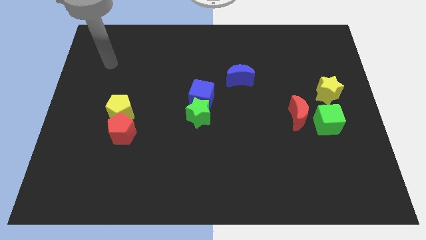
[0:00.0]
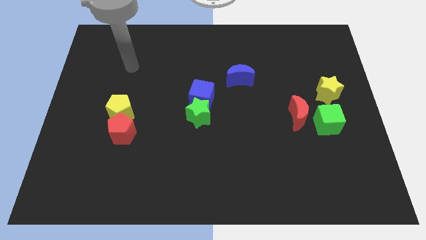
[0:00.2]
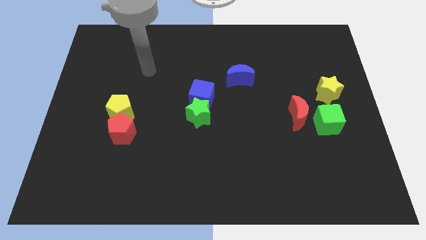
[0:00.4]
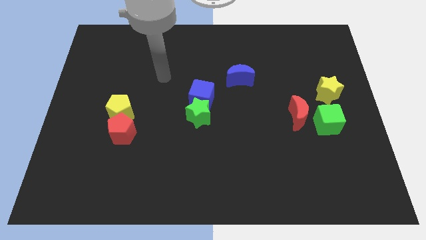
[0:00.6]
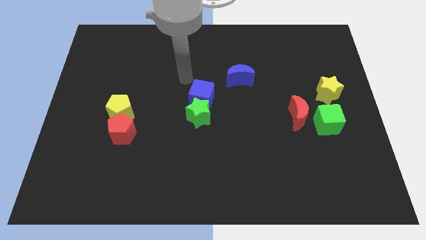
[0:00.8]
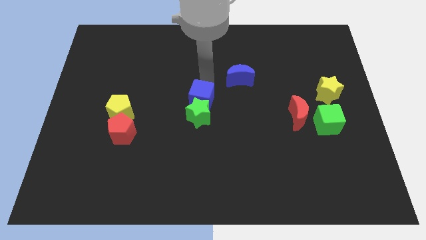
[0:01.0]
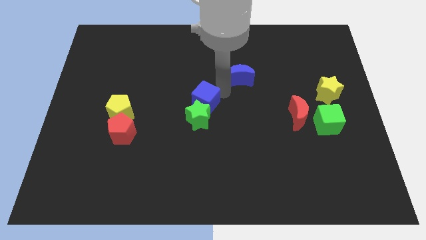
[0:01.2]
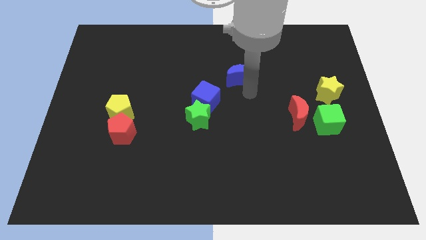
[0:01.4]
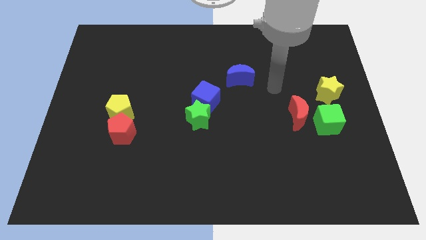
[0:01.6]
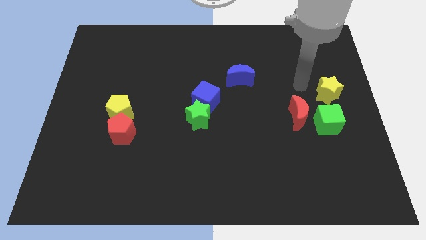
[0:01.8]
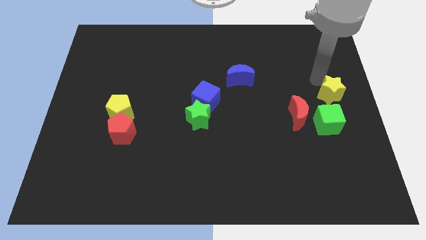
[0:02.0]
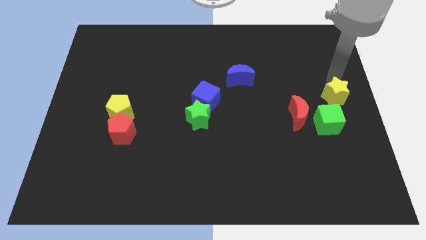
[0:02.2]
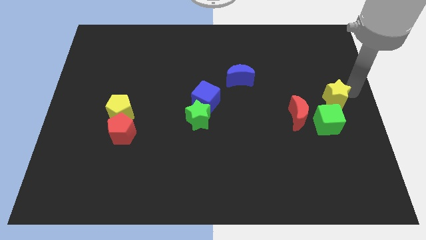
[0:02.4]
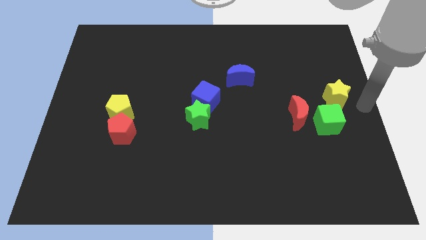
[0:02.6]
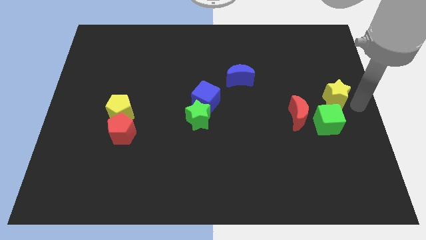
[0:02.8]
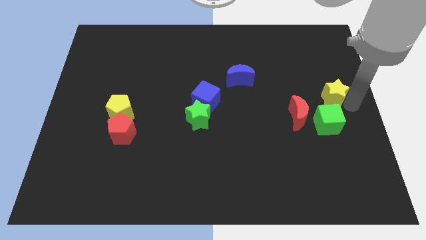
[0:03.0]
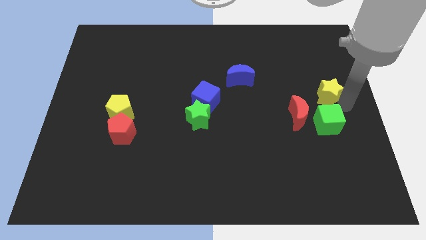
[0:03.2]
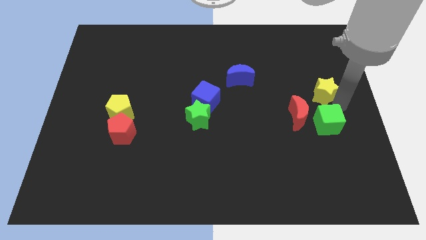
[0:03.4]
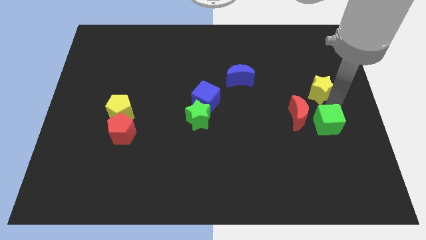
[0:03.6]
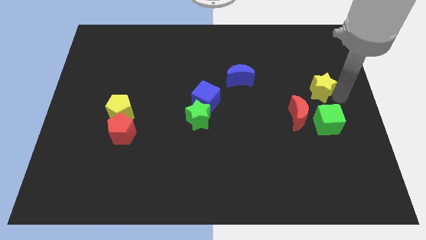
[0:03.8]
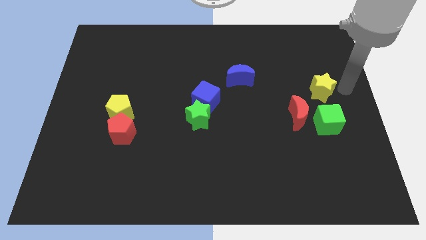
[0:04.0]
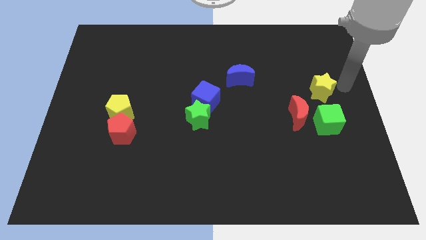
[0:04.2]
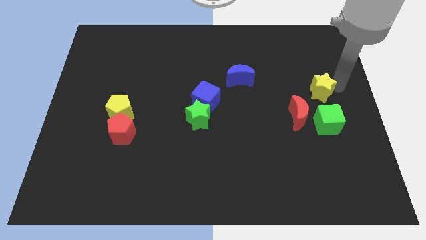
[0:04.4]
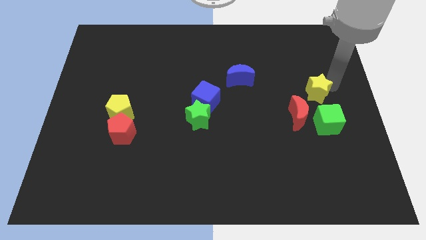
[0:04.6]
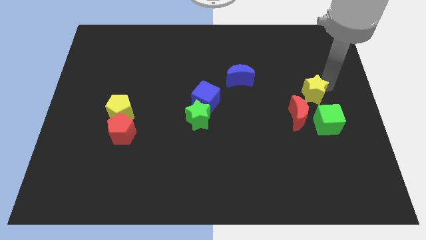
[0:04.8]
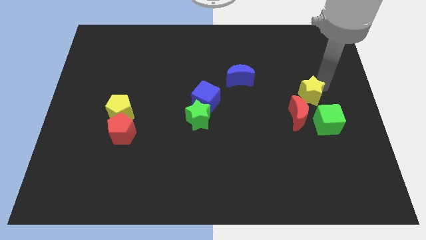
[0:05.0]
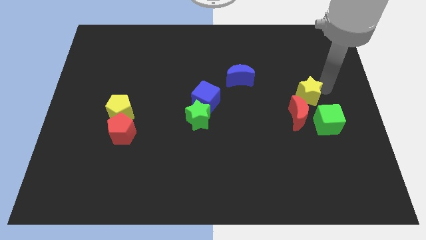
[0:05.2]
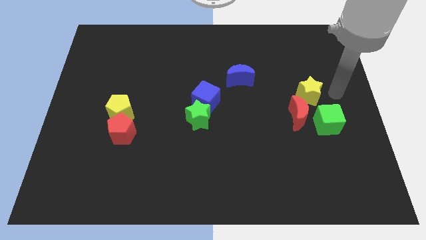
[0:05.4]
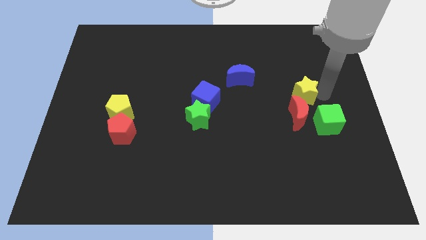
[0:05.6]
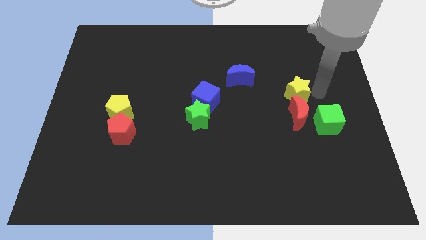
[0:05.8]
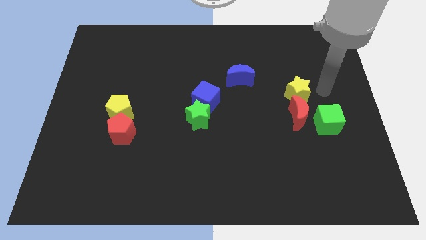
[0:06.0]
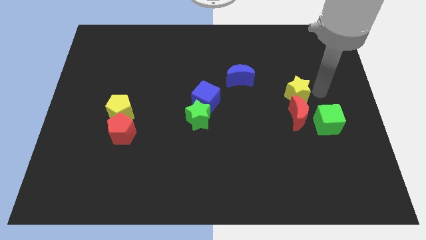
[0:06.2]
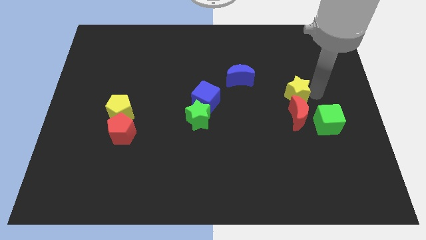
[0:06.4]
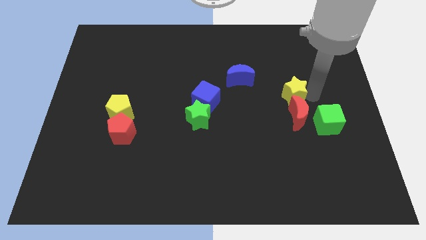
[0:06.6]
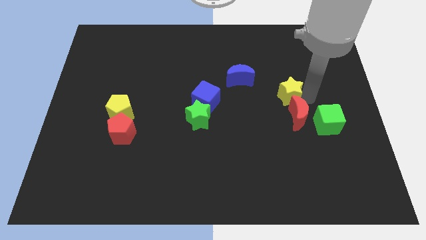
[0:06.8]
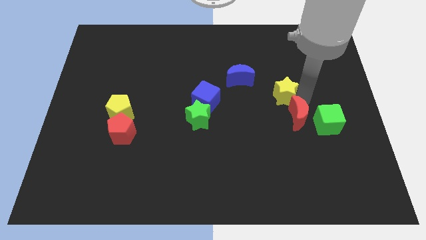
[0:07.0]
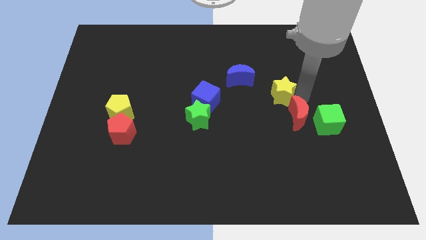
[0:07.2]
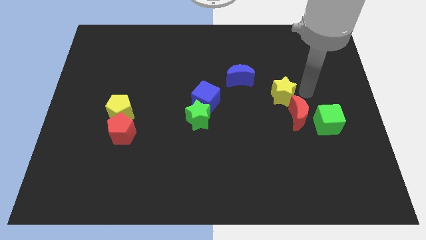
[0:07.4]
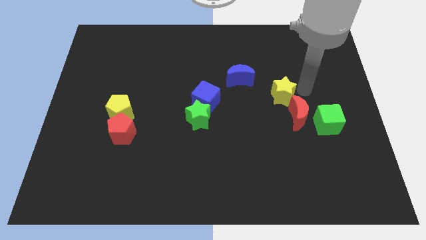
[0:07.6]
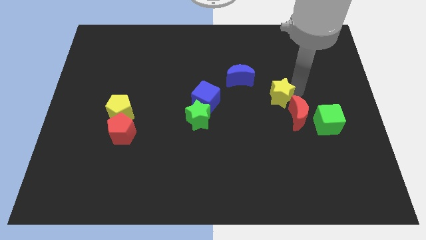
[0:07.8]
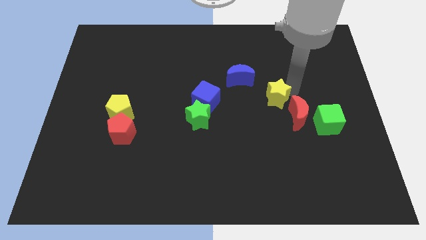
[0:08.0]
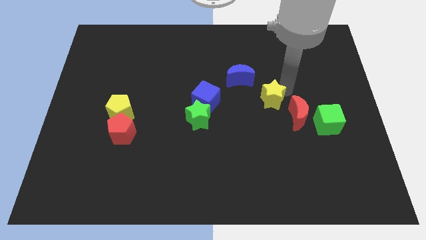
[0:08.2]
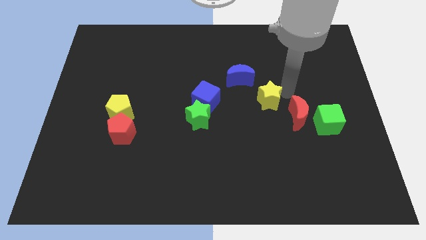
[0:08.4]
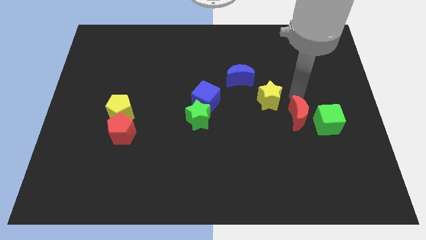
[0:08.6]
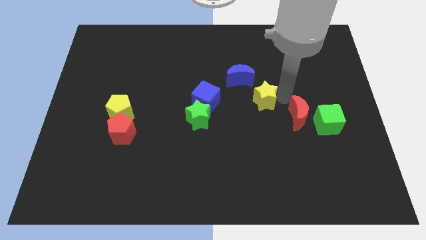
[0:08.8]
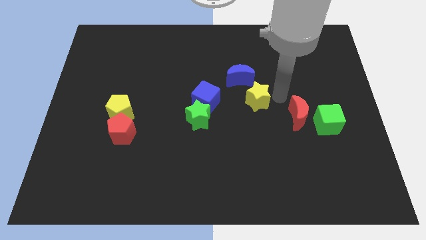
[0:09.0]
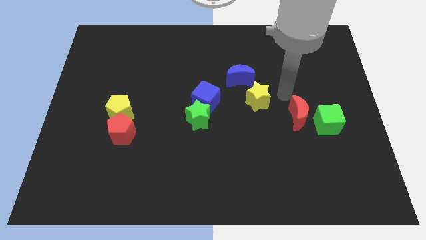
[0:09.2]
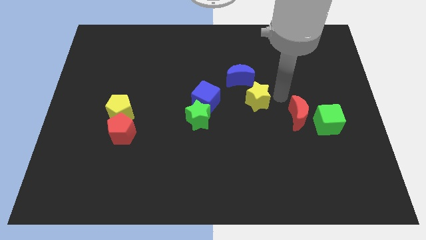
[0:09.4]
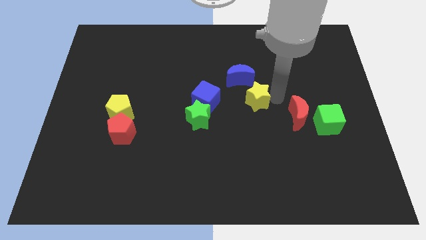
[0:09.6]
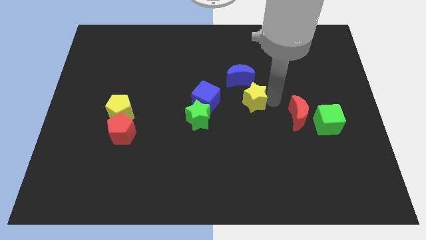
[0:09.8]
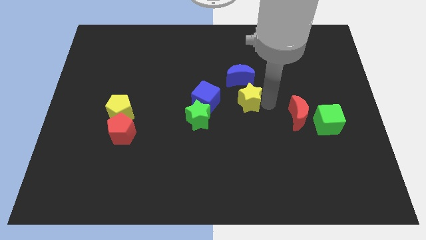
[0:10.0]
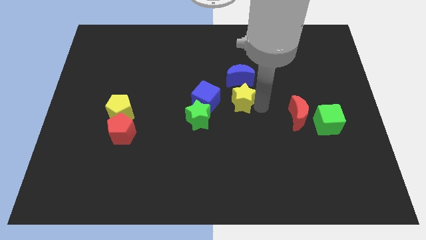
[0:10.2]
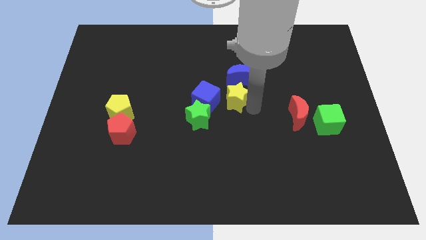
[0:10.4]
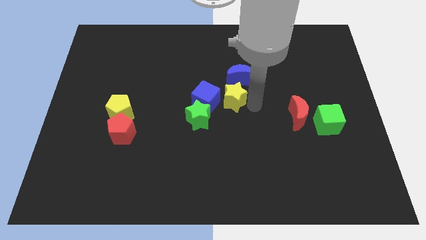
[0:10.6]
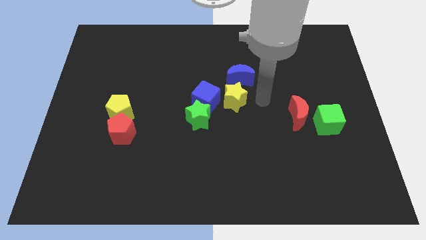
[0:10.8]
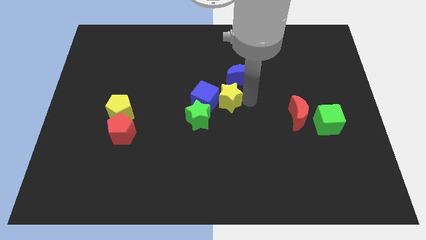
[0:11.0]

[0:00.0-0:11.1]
slide the yellow star to the blue cube

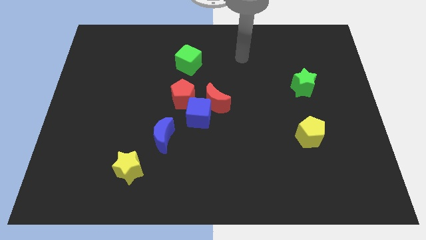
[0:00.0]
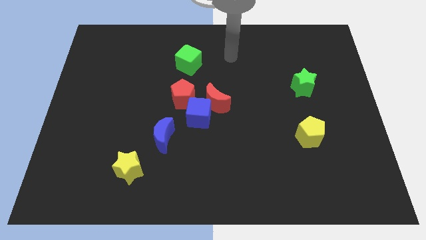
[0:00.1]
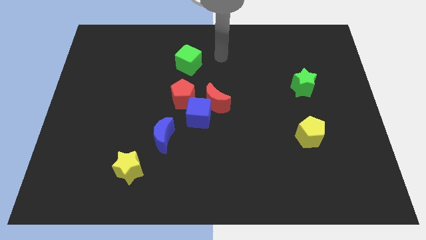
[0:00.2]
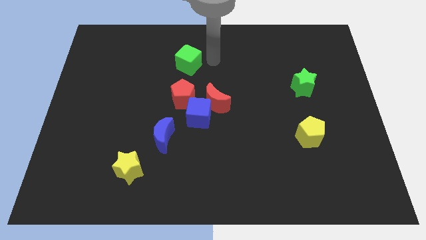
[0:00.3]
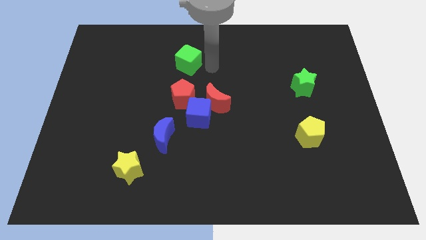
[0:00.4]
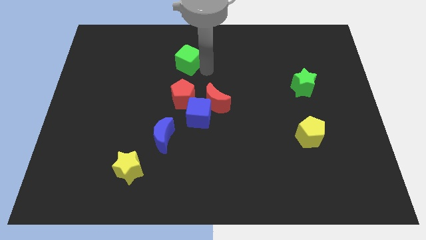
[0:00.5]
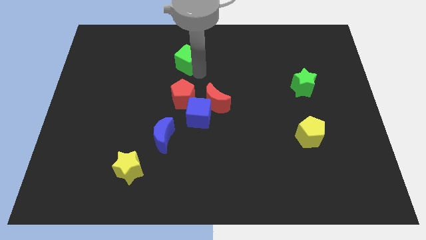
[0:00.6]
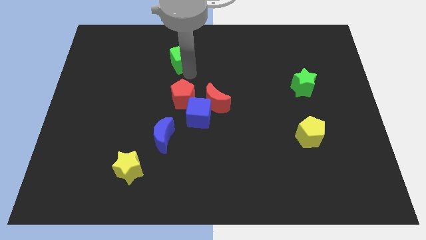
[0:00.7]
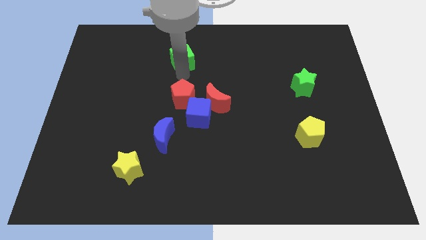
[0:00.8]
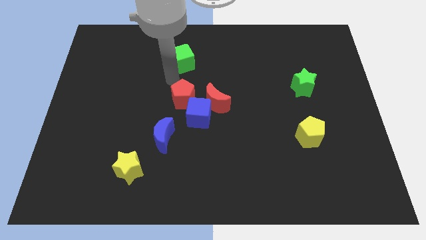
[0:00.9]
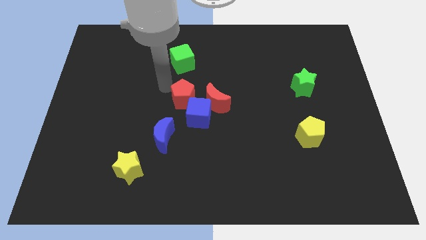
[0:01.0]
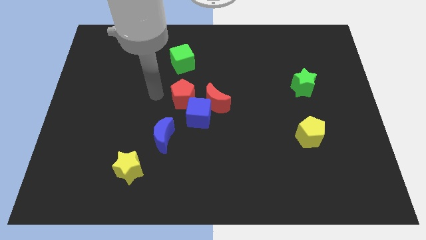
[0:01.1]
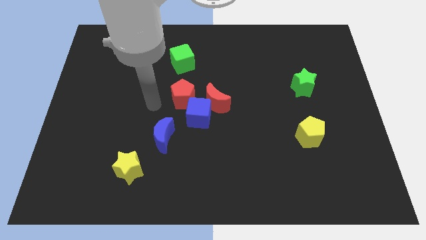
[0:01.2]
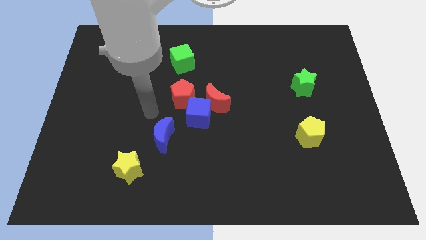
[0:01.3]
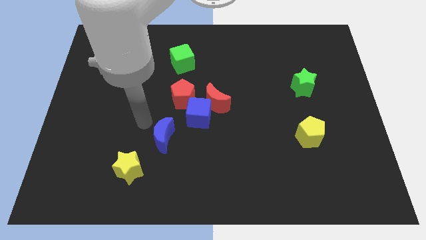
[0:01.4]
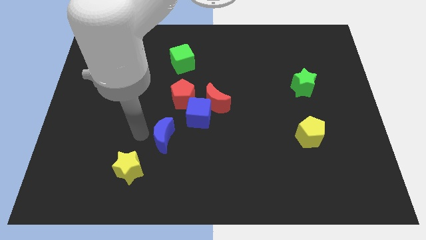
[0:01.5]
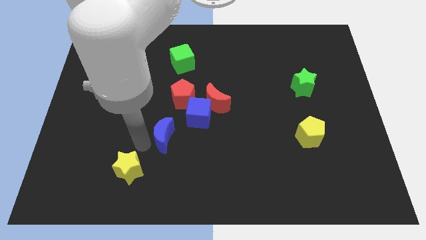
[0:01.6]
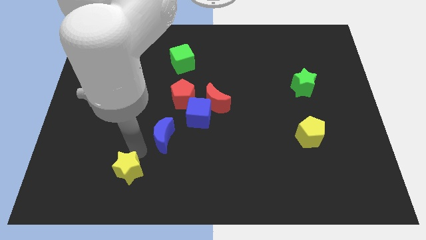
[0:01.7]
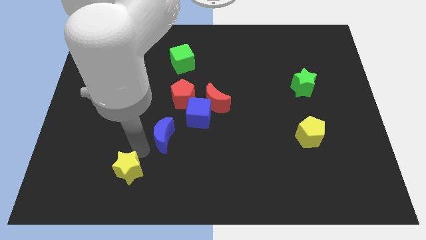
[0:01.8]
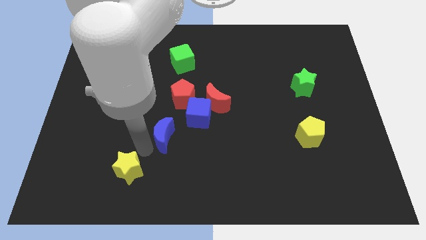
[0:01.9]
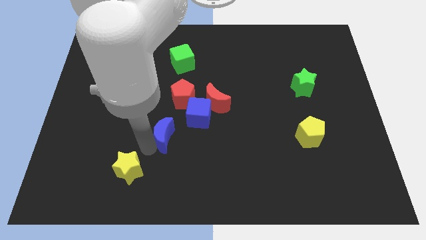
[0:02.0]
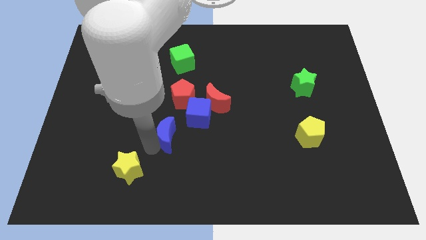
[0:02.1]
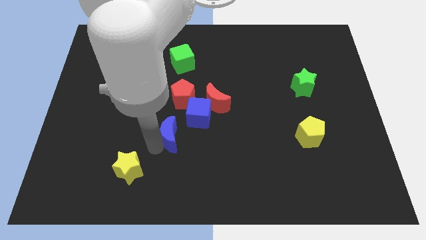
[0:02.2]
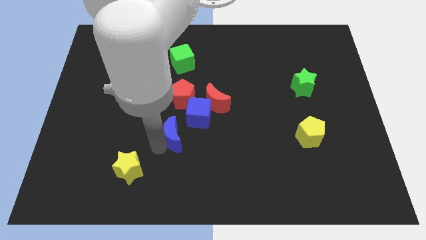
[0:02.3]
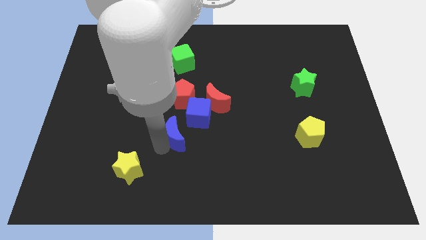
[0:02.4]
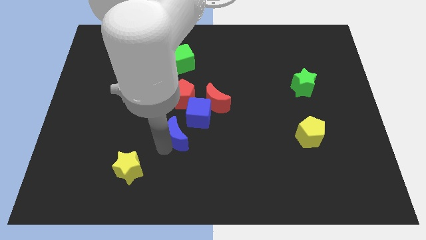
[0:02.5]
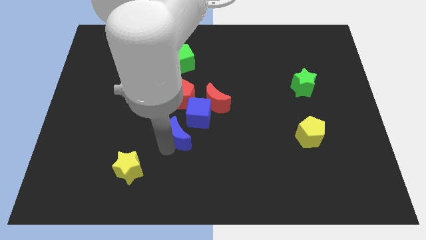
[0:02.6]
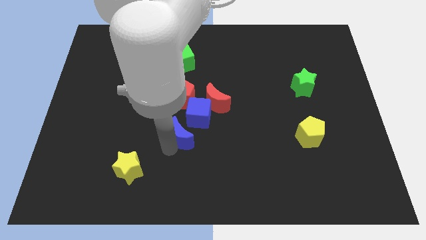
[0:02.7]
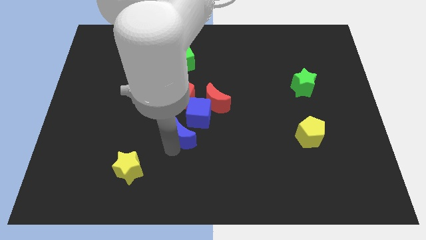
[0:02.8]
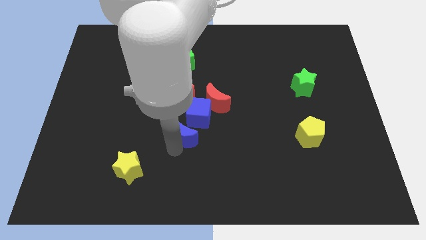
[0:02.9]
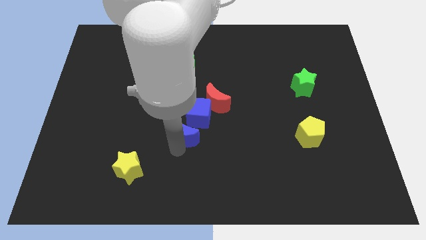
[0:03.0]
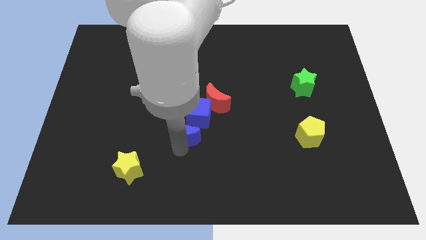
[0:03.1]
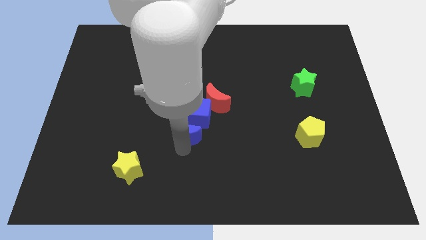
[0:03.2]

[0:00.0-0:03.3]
push the blue moon towards the blue cube
